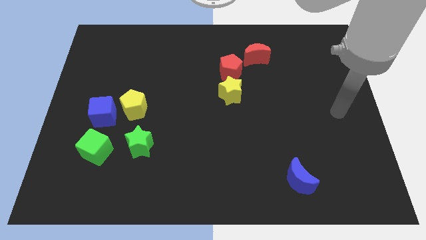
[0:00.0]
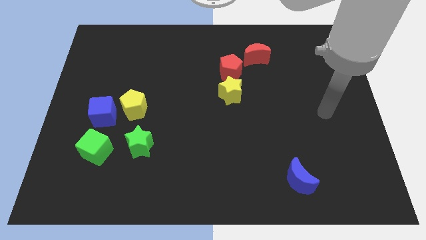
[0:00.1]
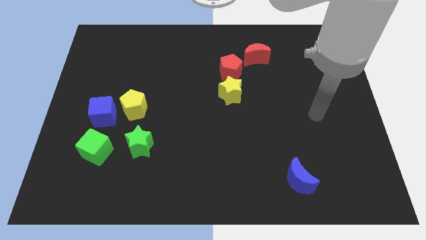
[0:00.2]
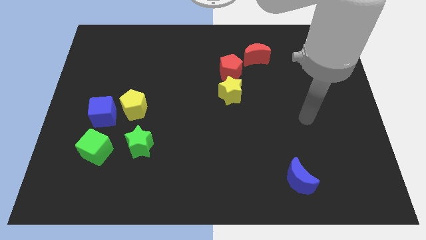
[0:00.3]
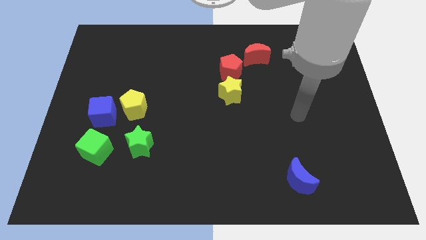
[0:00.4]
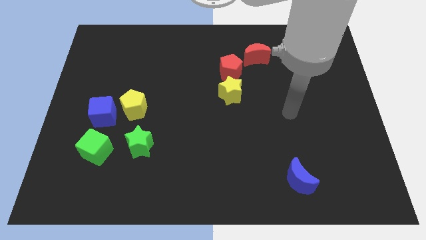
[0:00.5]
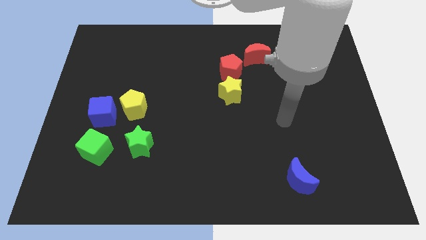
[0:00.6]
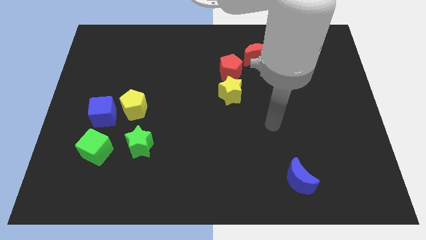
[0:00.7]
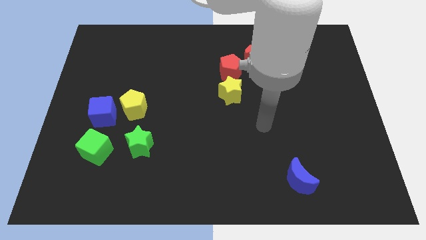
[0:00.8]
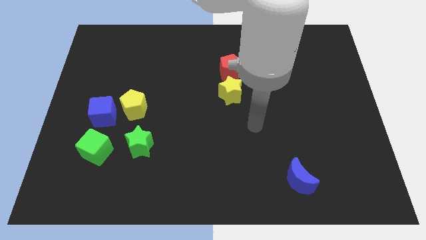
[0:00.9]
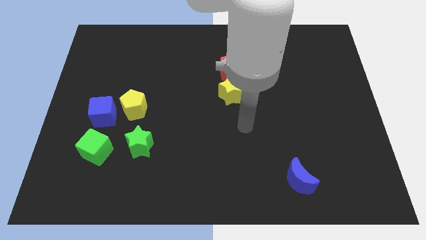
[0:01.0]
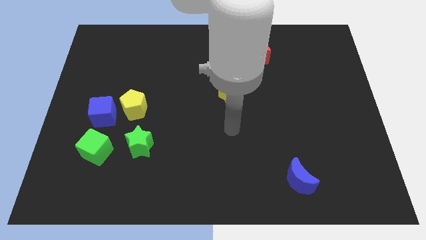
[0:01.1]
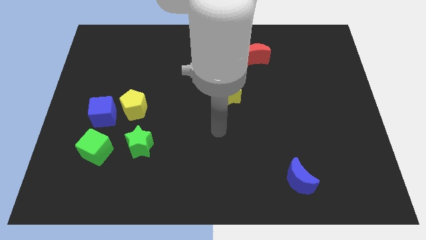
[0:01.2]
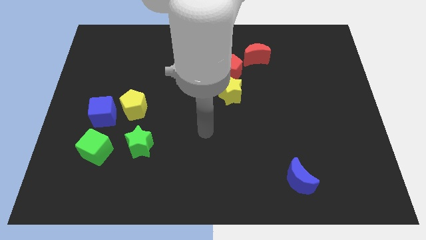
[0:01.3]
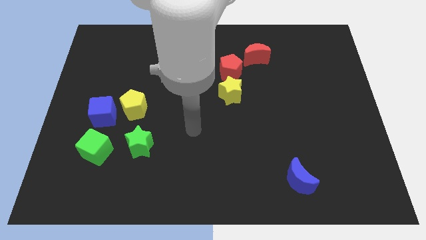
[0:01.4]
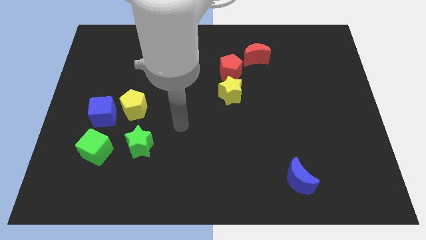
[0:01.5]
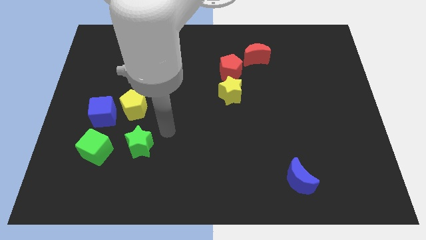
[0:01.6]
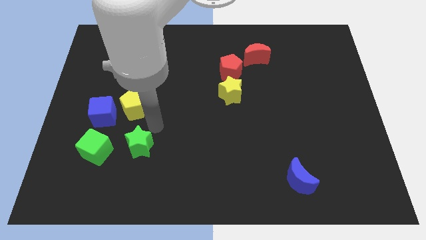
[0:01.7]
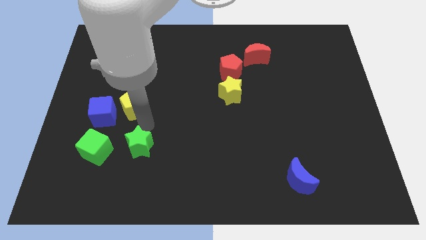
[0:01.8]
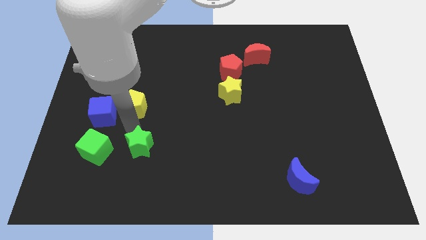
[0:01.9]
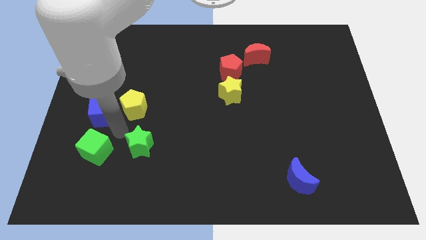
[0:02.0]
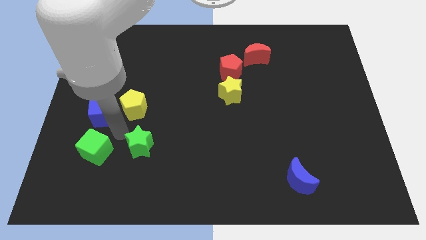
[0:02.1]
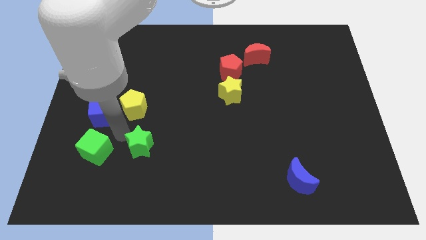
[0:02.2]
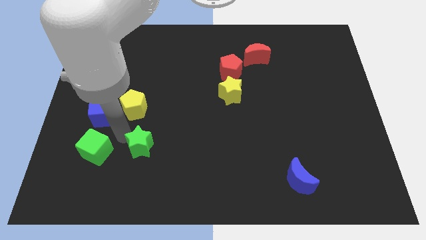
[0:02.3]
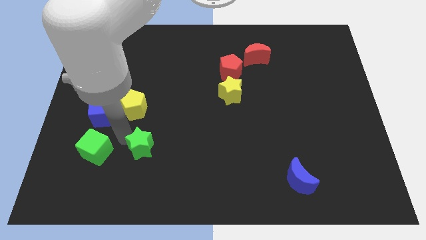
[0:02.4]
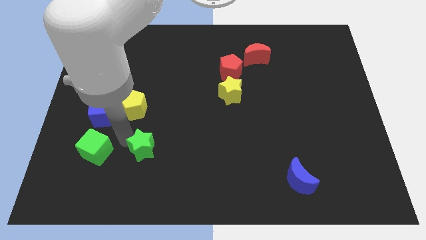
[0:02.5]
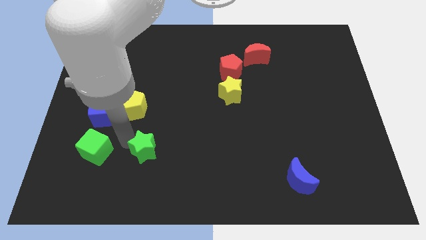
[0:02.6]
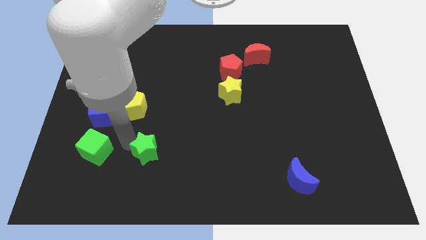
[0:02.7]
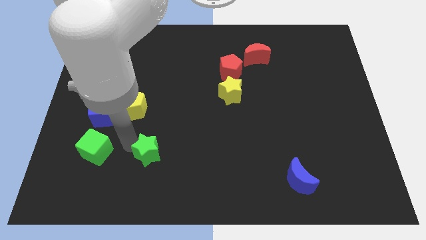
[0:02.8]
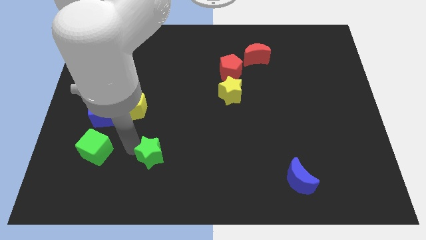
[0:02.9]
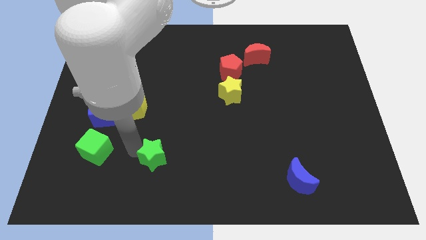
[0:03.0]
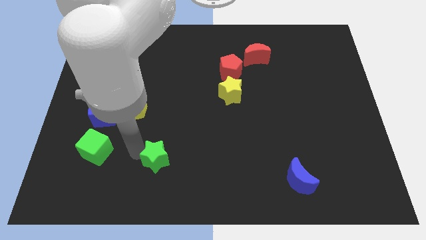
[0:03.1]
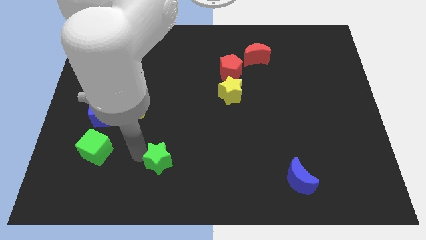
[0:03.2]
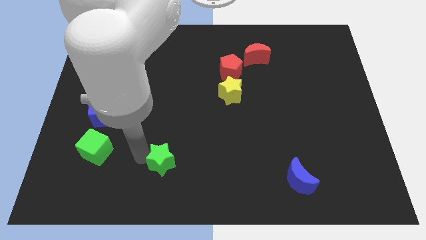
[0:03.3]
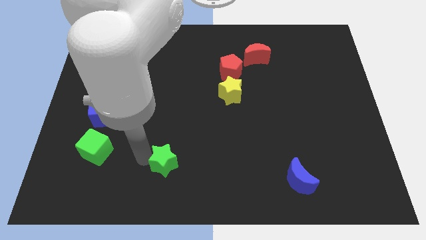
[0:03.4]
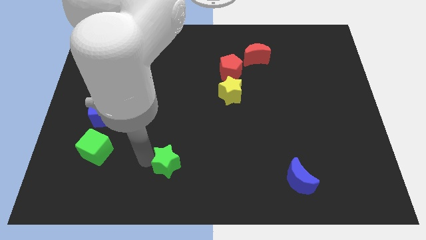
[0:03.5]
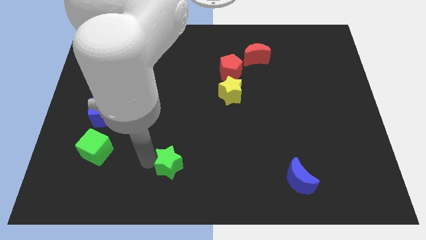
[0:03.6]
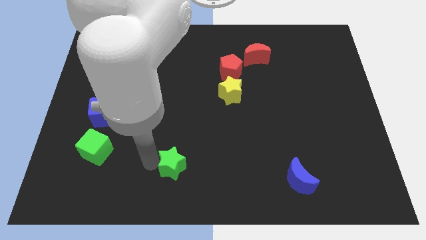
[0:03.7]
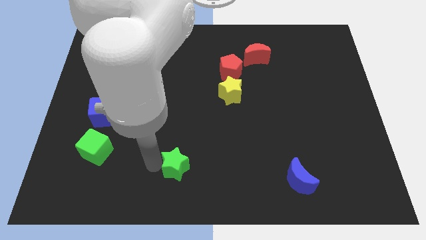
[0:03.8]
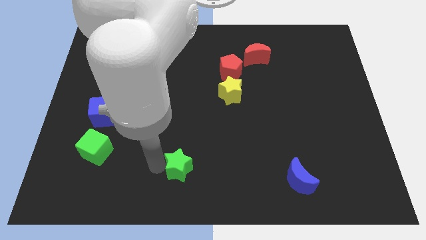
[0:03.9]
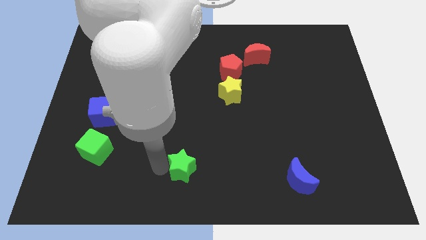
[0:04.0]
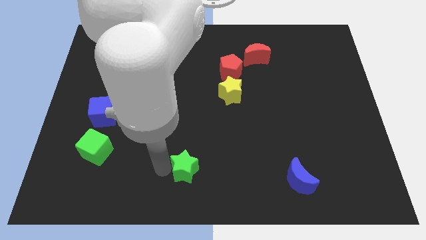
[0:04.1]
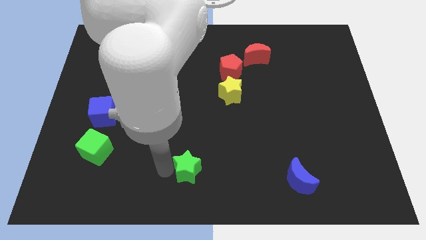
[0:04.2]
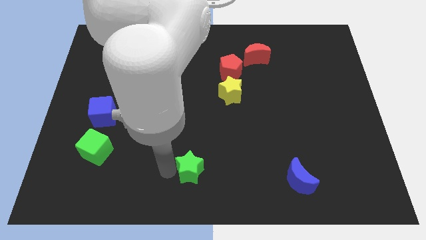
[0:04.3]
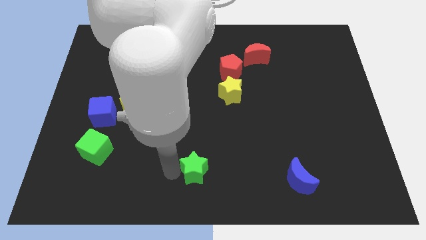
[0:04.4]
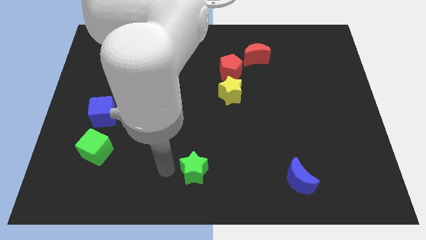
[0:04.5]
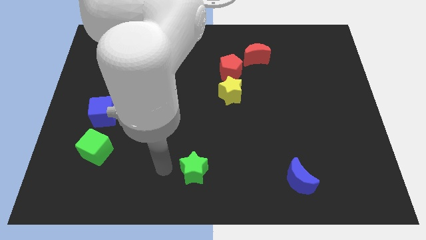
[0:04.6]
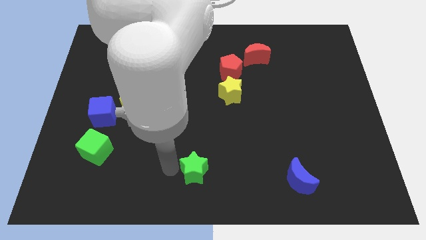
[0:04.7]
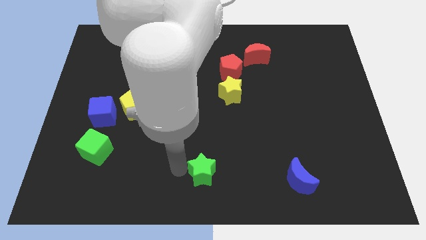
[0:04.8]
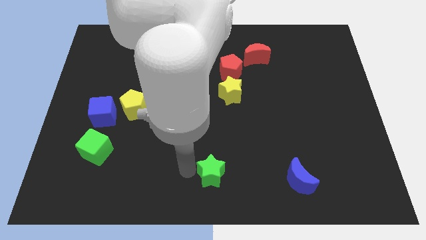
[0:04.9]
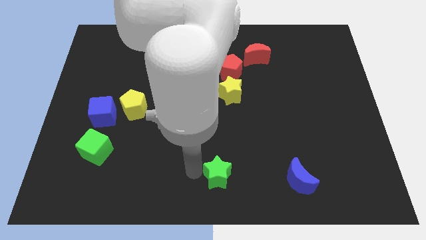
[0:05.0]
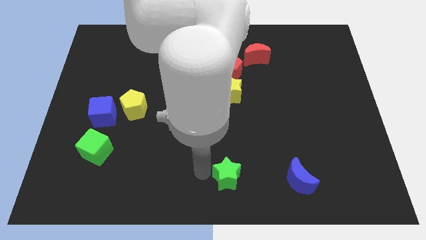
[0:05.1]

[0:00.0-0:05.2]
push the green star left of the blue moon

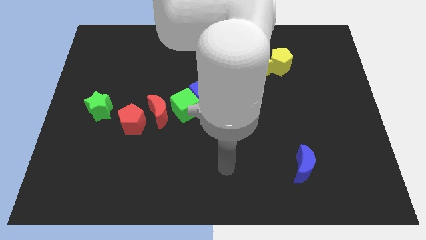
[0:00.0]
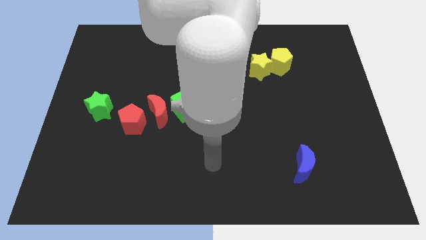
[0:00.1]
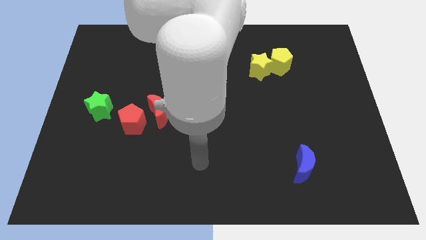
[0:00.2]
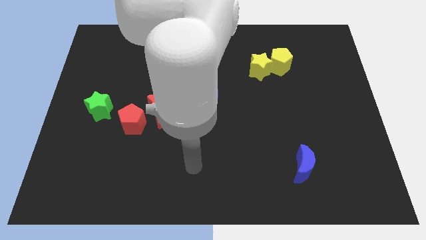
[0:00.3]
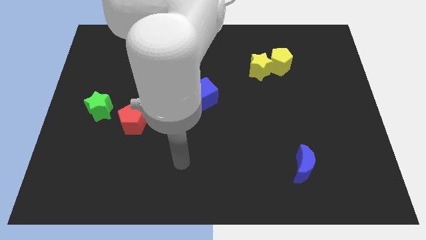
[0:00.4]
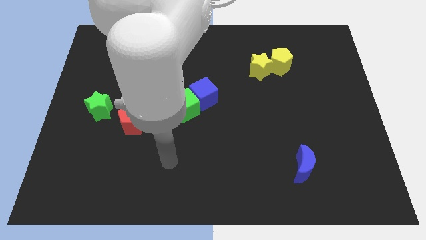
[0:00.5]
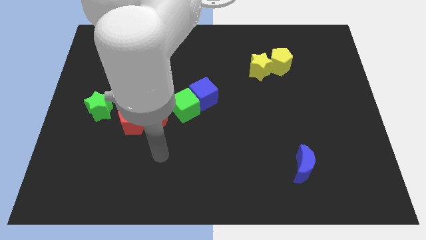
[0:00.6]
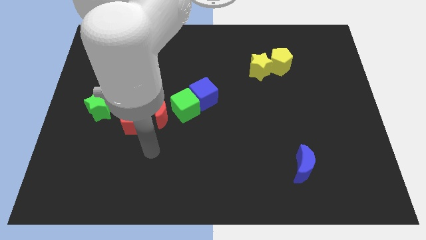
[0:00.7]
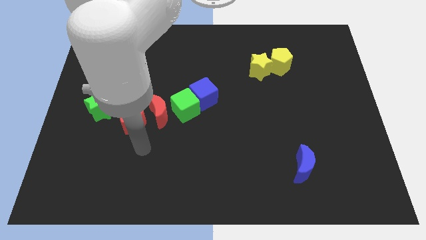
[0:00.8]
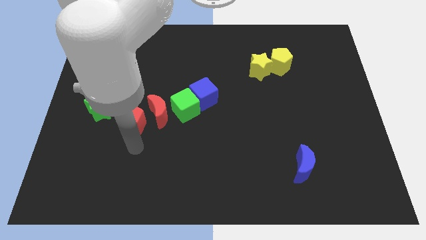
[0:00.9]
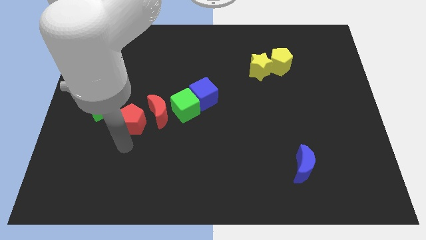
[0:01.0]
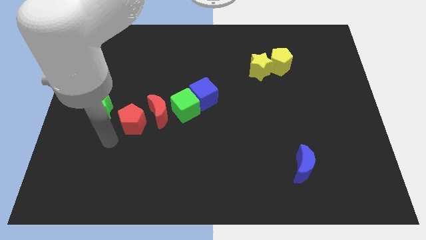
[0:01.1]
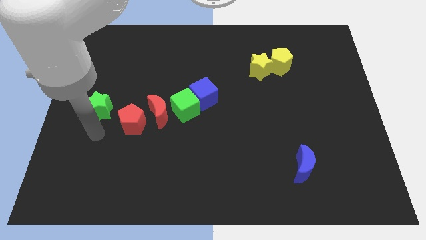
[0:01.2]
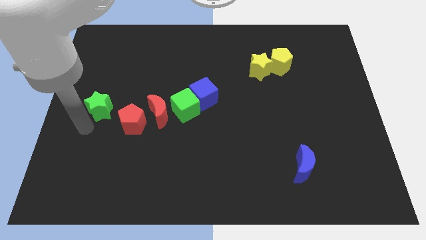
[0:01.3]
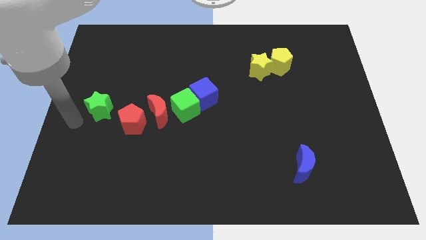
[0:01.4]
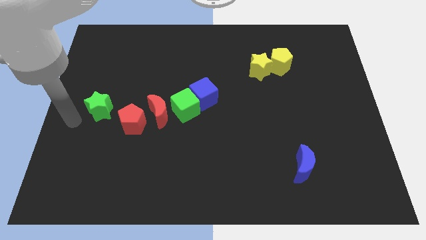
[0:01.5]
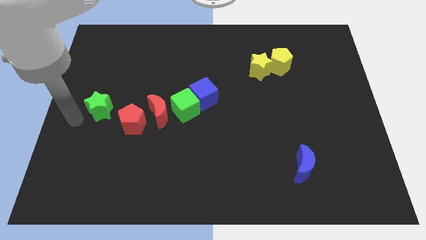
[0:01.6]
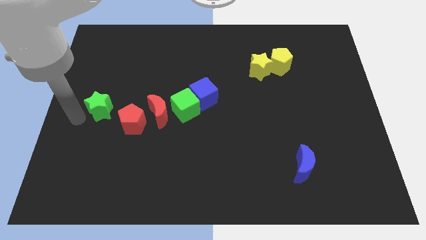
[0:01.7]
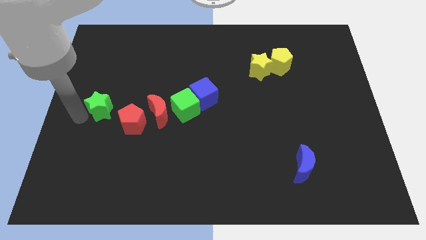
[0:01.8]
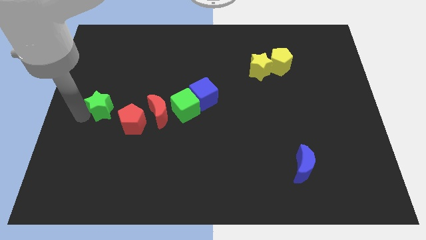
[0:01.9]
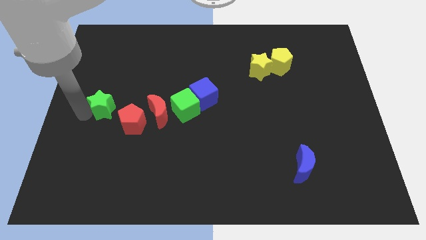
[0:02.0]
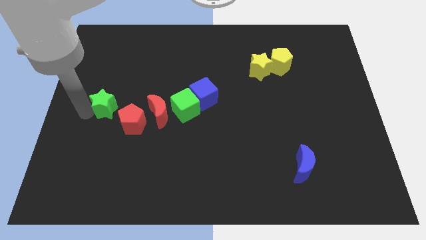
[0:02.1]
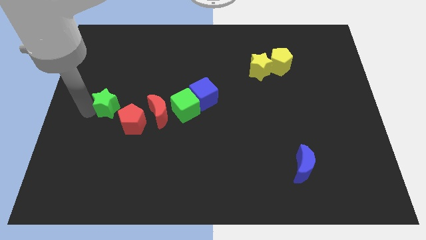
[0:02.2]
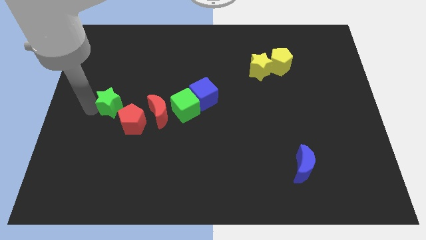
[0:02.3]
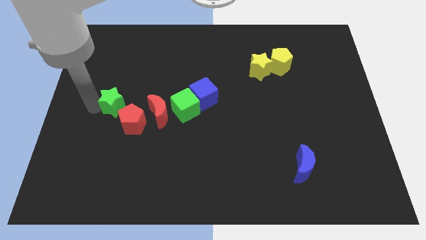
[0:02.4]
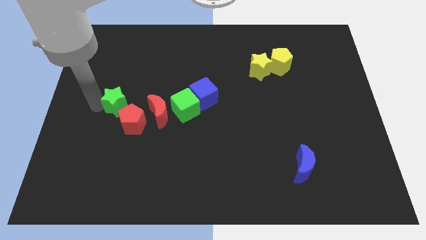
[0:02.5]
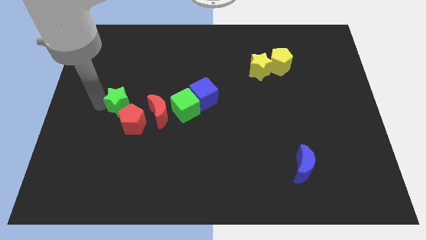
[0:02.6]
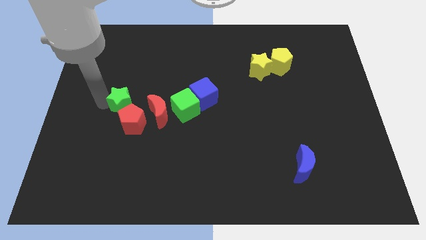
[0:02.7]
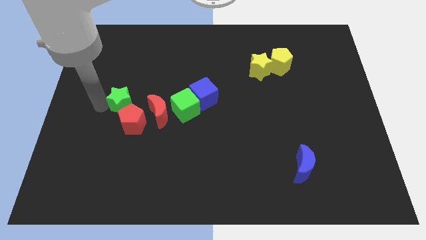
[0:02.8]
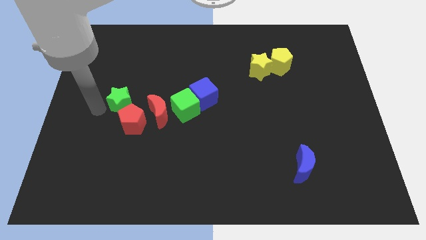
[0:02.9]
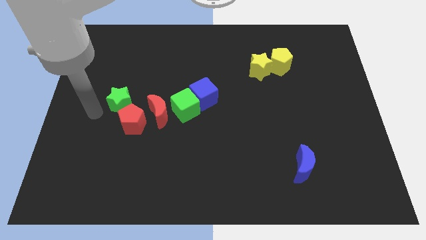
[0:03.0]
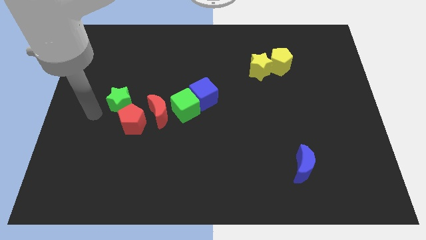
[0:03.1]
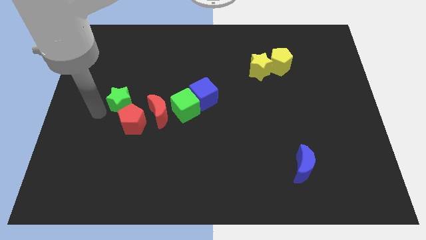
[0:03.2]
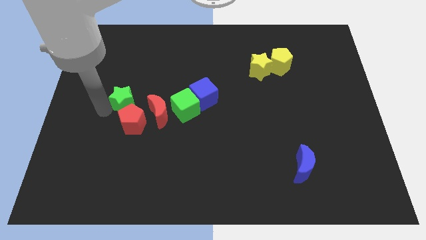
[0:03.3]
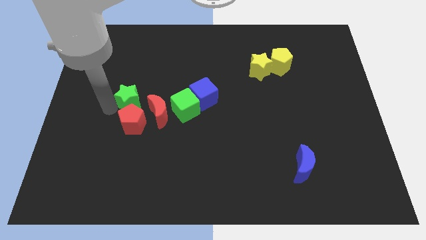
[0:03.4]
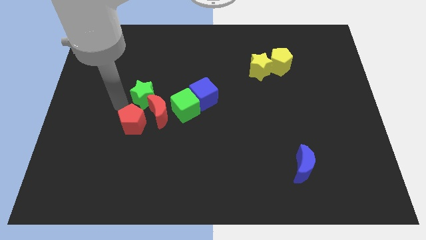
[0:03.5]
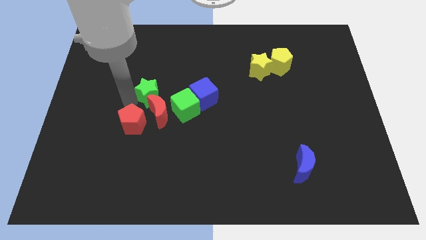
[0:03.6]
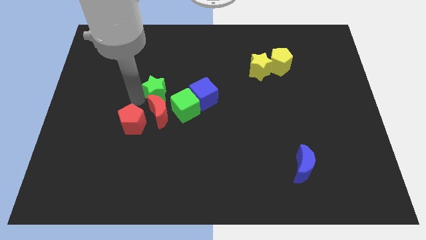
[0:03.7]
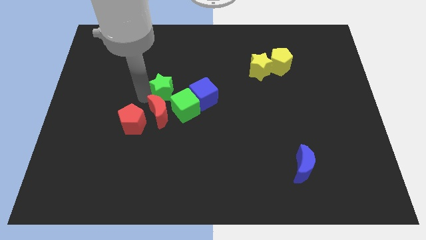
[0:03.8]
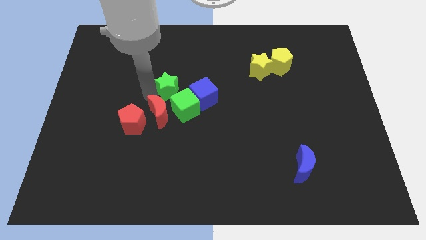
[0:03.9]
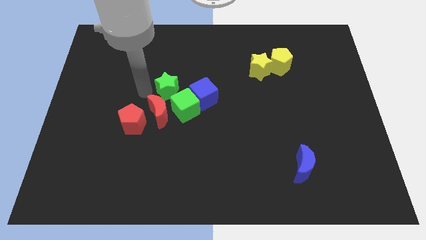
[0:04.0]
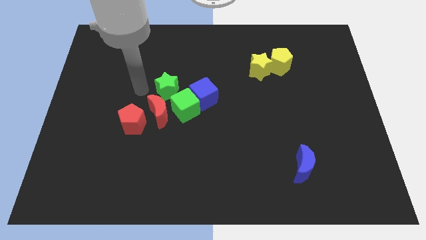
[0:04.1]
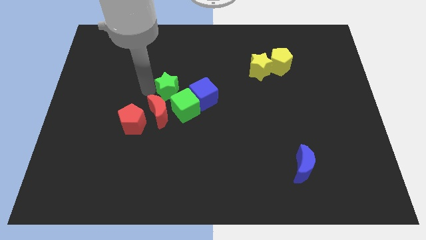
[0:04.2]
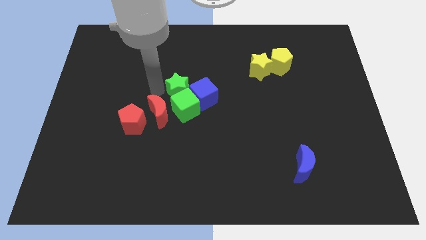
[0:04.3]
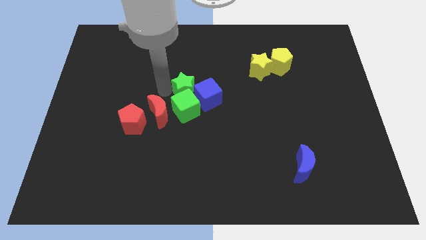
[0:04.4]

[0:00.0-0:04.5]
push the green star to the top right side of the green cube
